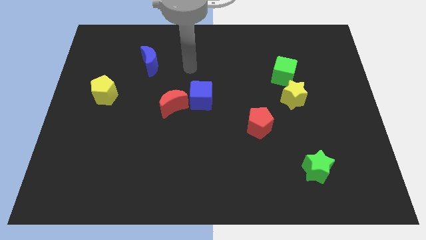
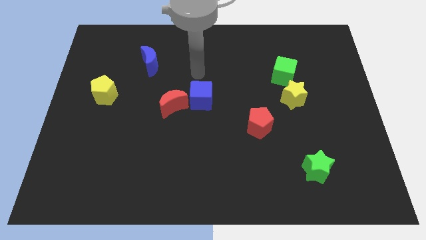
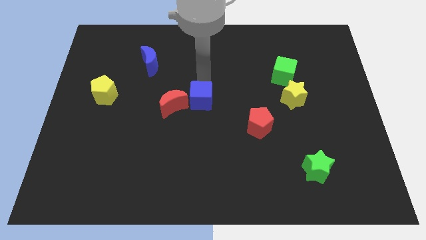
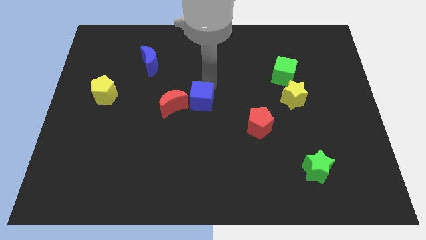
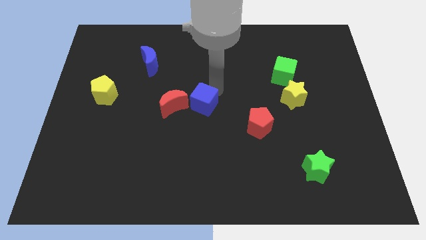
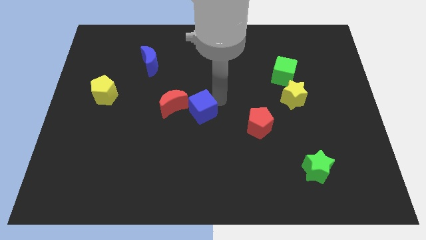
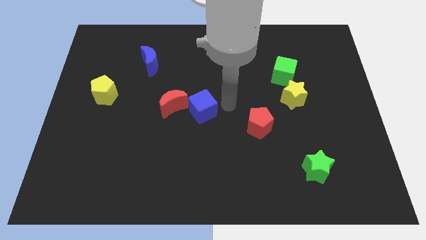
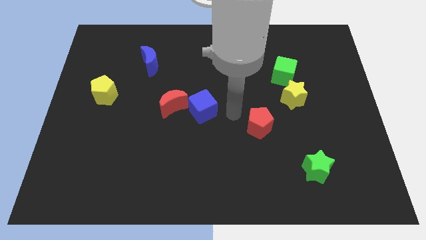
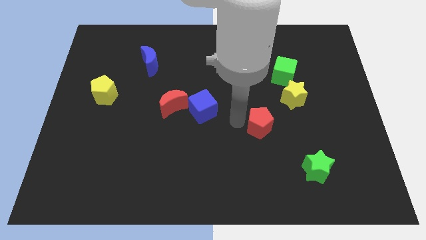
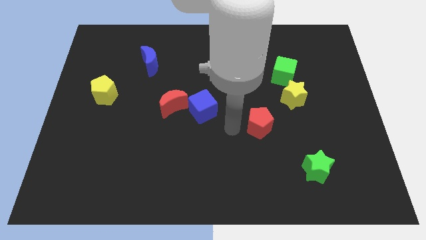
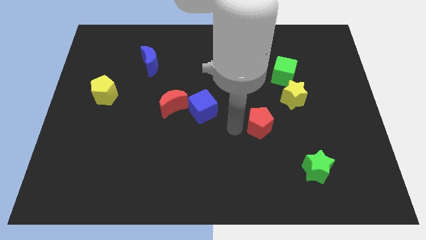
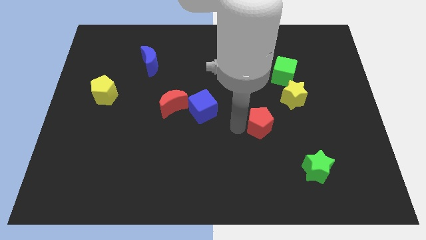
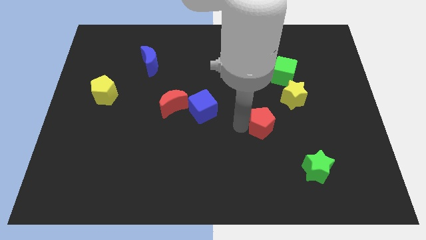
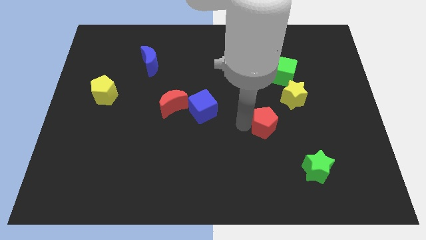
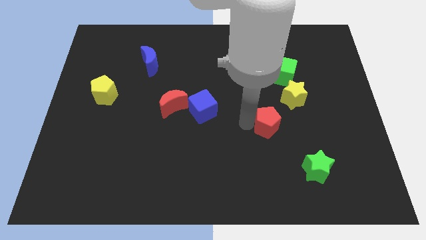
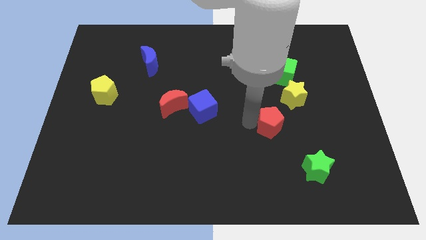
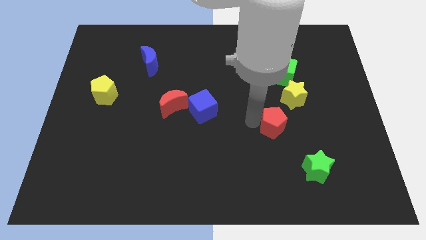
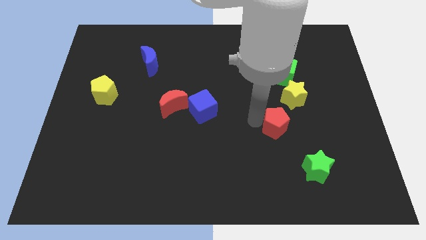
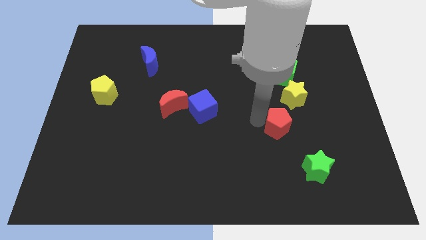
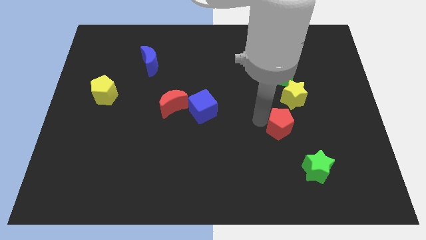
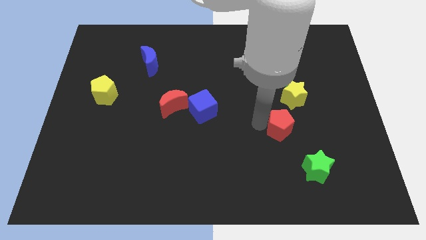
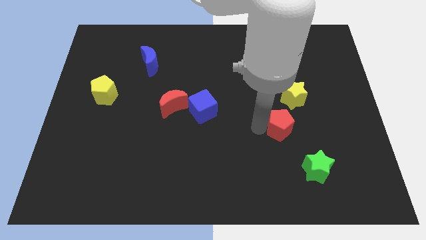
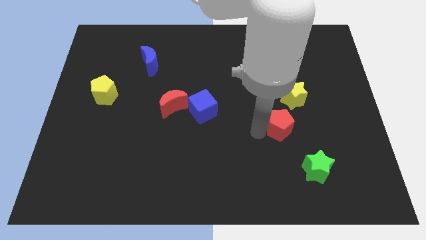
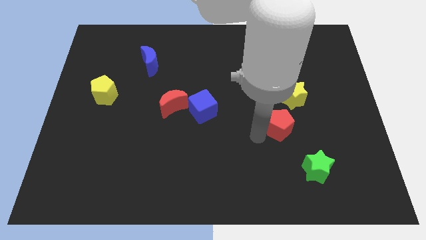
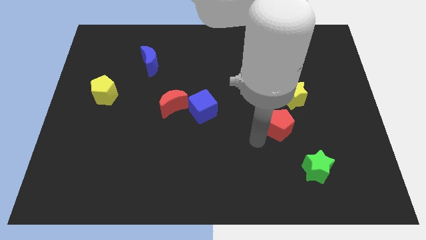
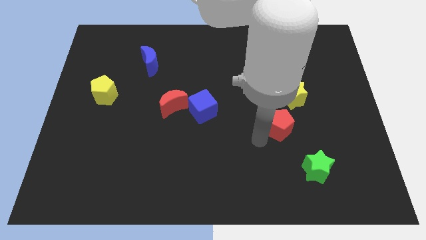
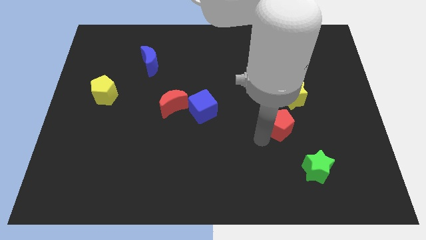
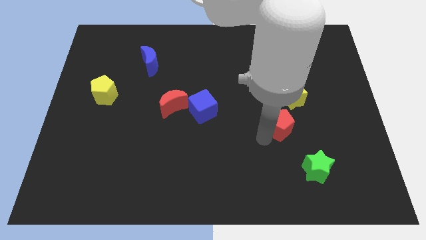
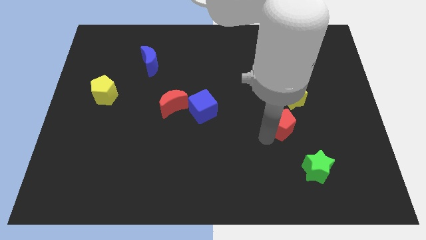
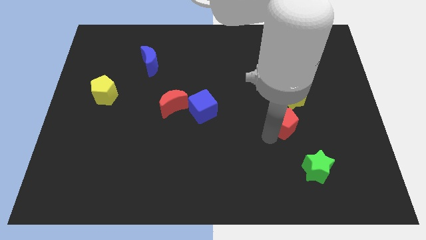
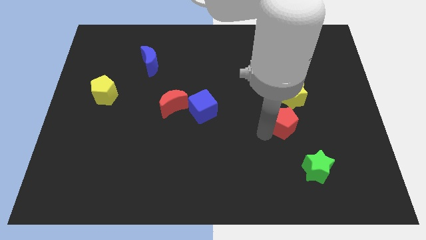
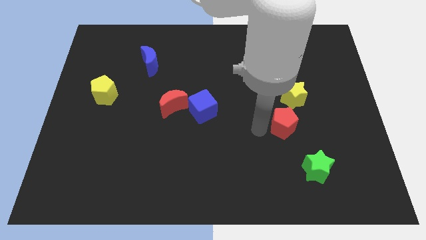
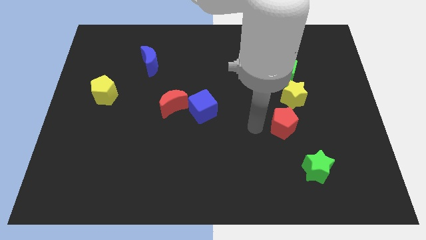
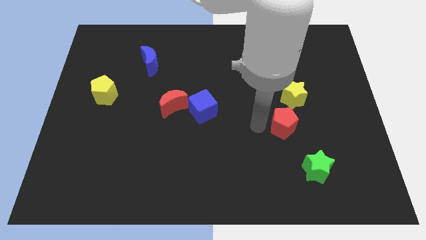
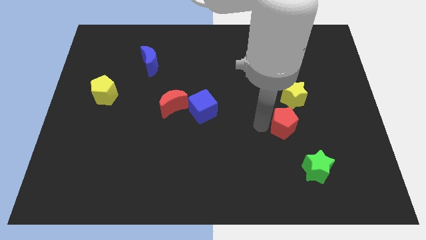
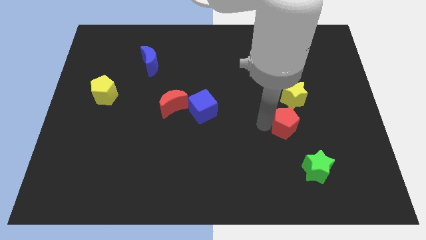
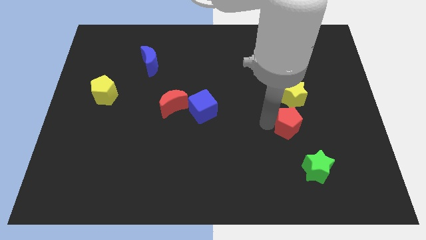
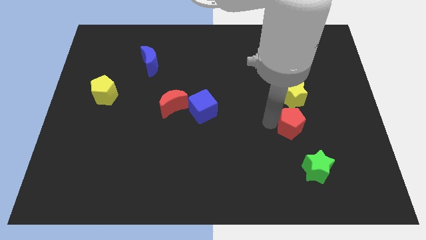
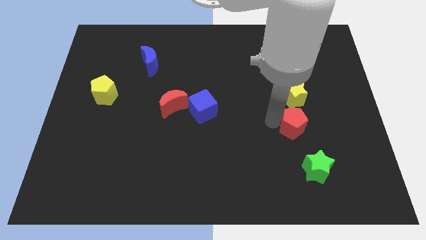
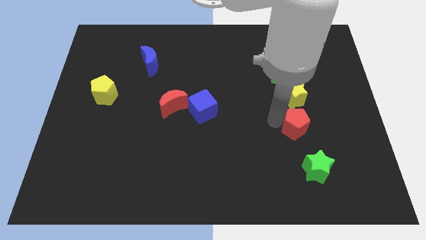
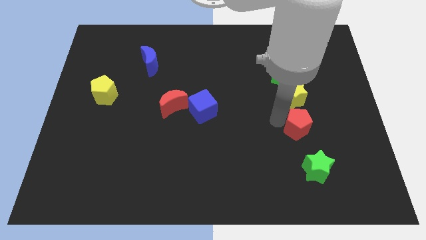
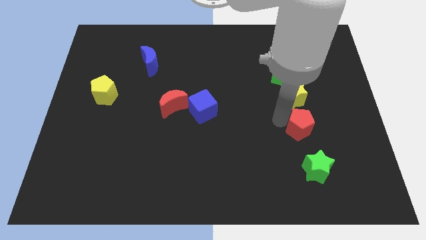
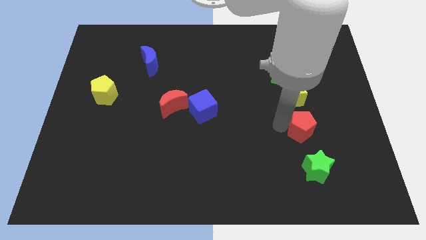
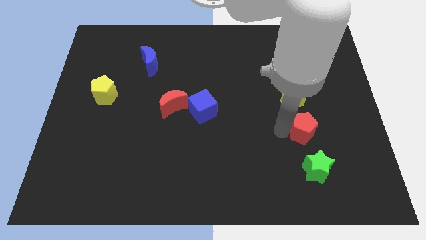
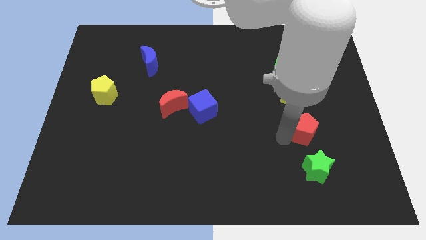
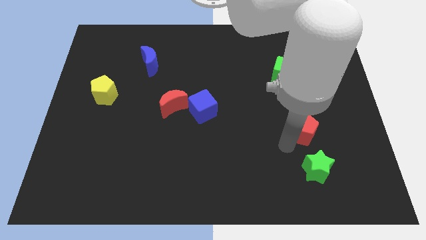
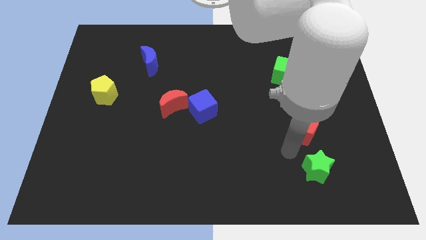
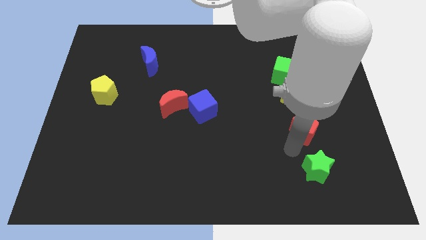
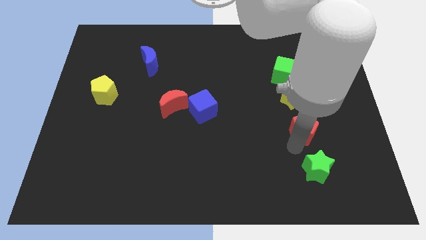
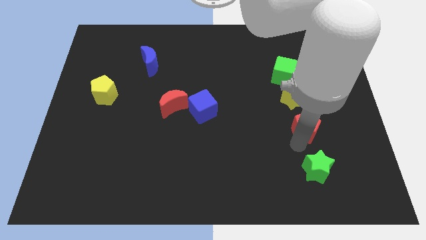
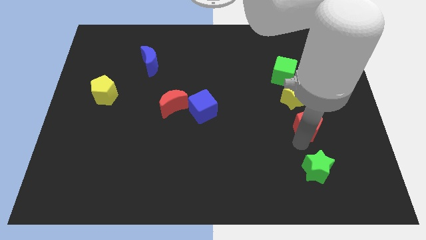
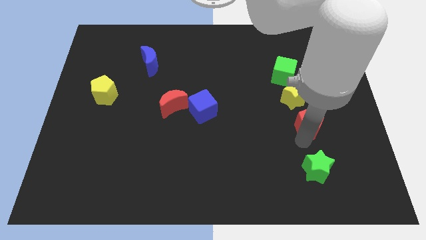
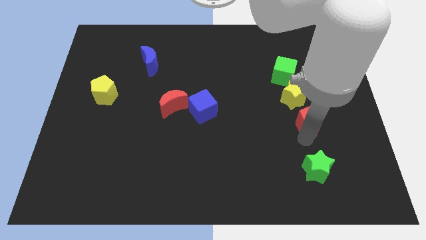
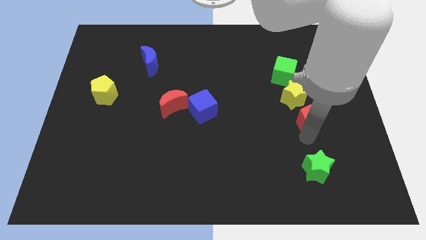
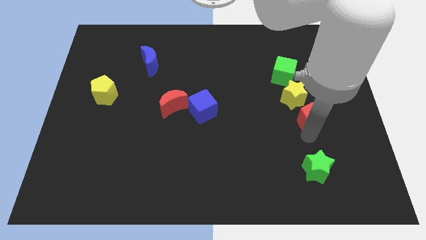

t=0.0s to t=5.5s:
slide the red pentagon upwards and right diagonally a little

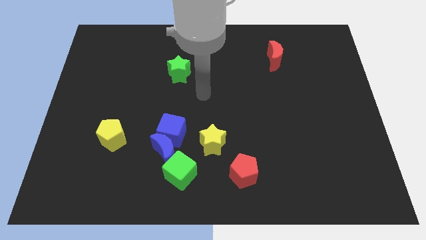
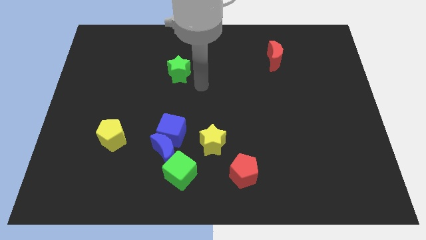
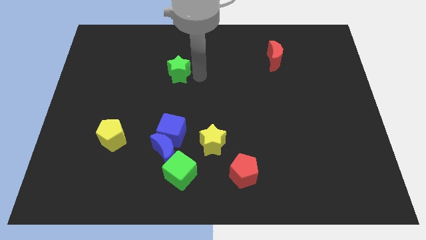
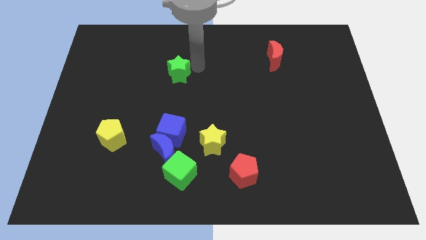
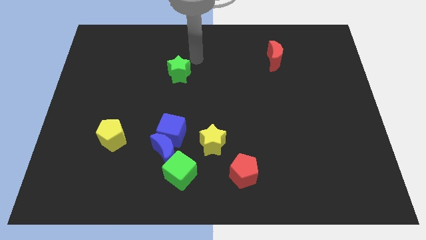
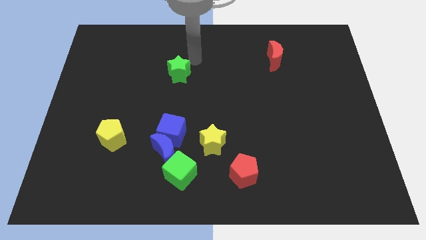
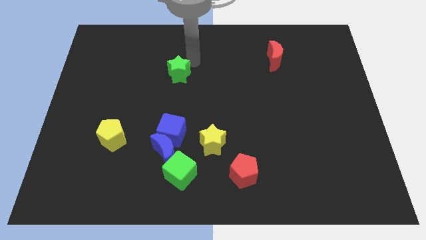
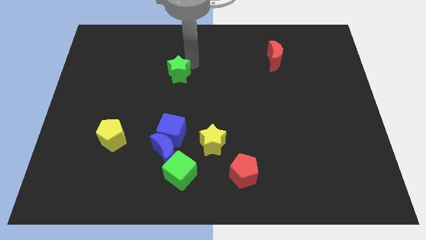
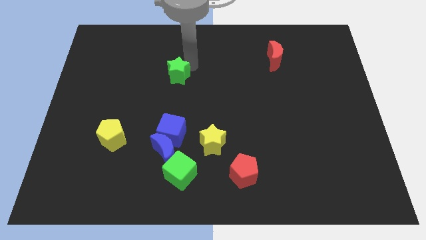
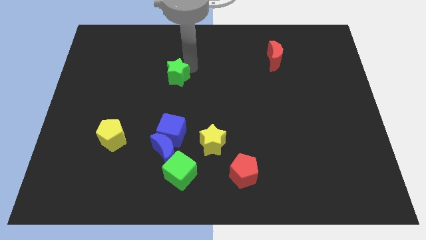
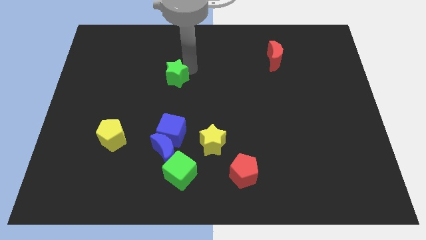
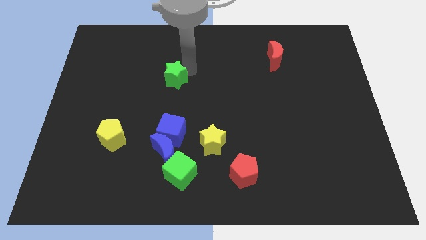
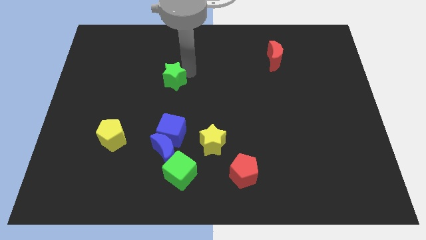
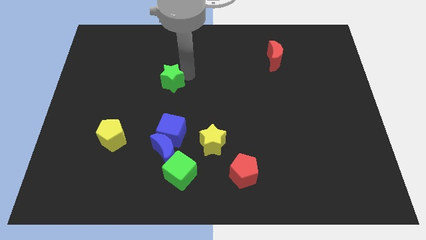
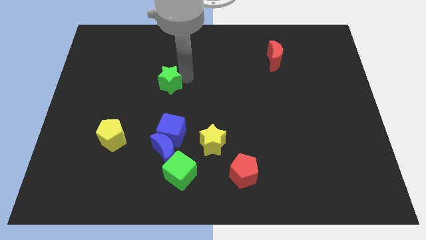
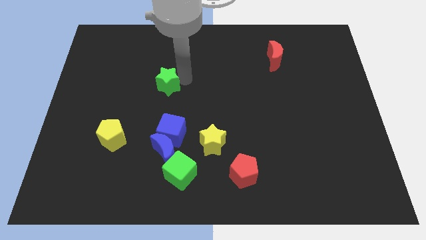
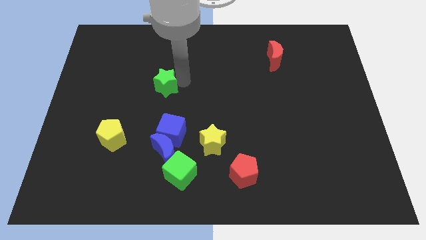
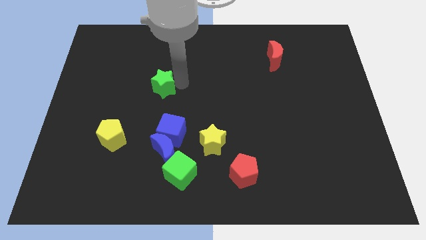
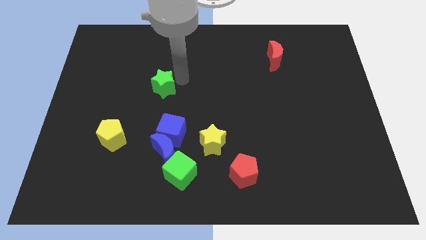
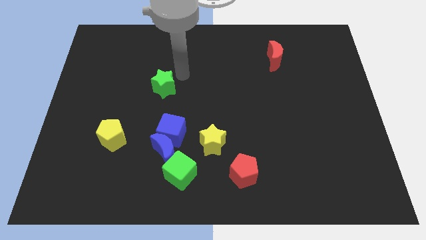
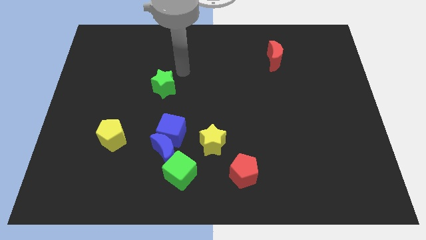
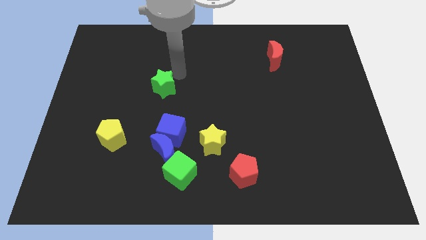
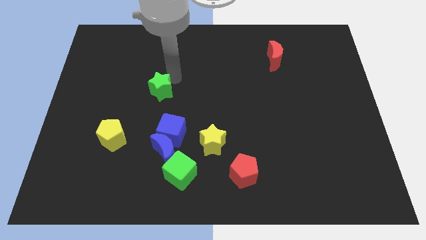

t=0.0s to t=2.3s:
slide the green star downwards and then to the left a little bit

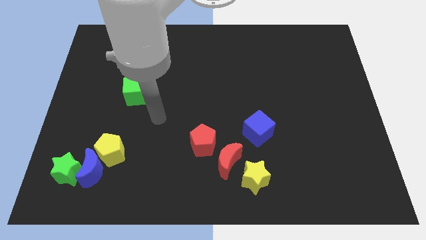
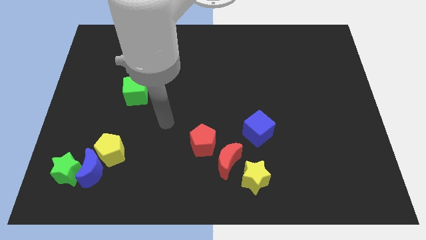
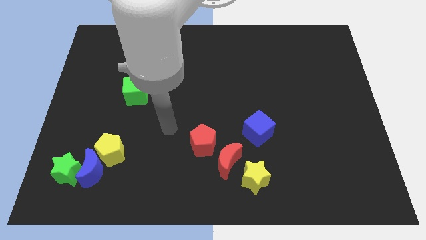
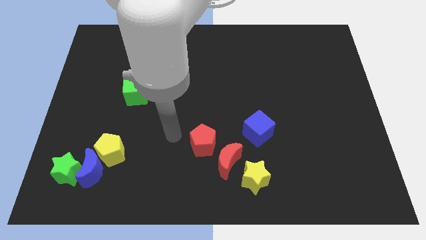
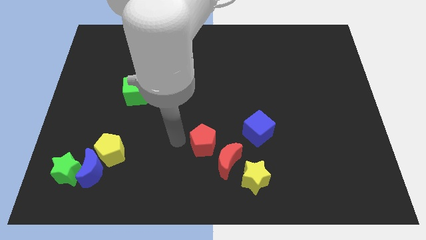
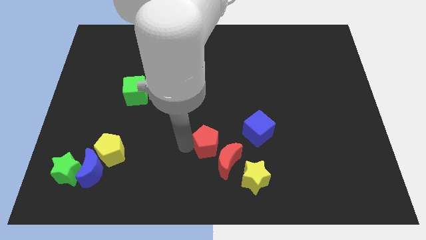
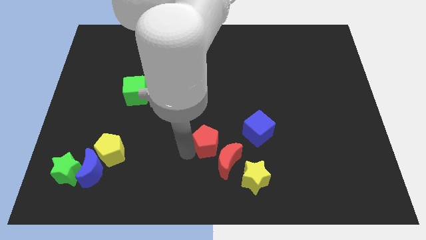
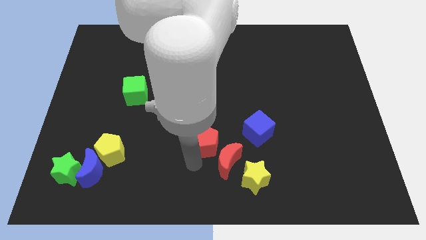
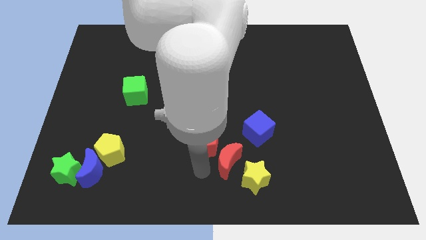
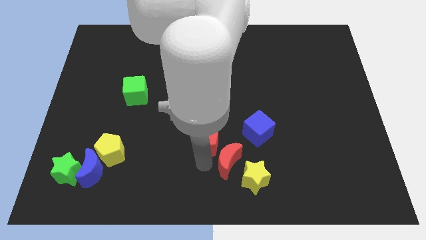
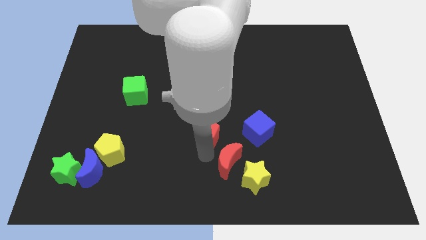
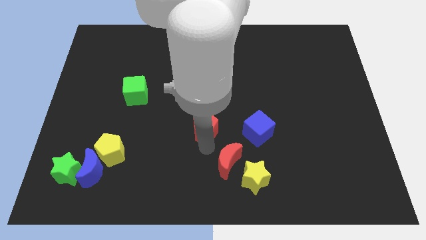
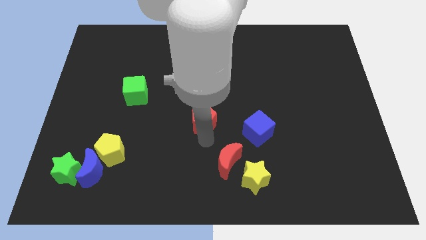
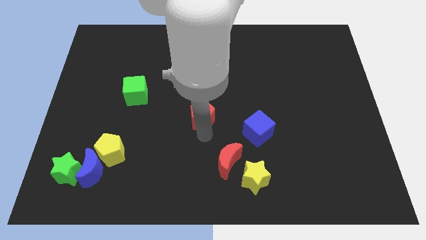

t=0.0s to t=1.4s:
push the red pentagon a little upwards
